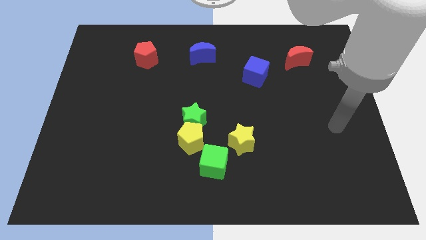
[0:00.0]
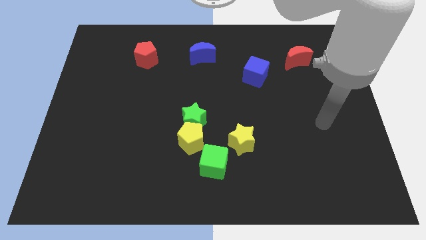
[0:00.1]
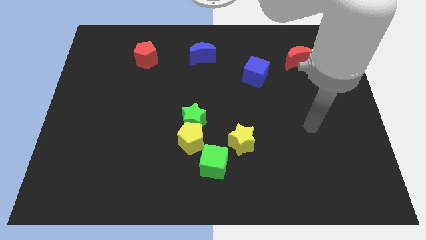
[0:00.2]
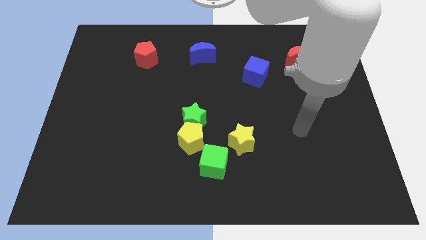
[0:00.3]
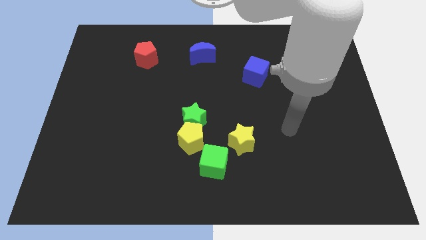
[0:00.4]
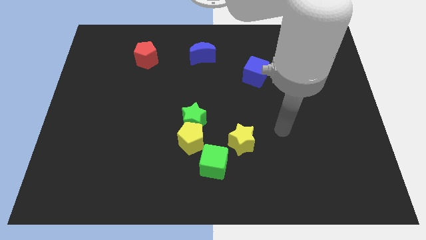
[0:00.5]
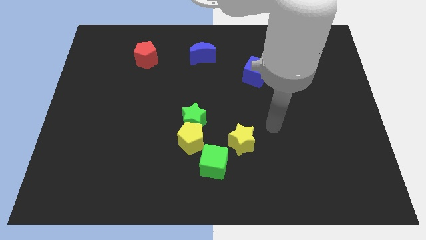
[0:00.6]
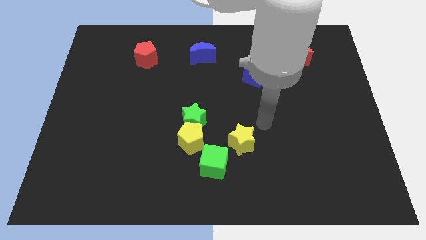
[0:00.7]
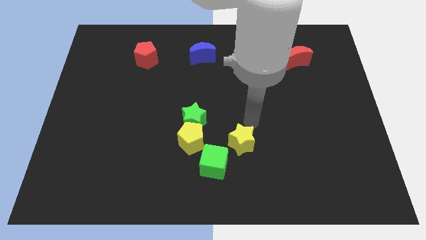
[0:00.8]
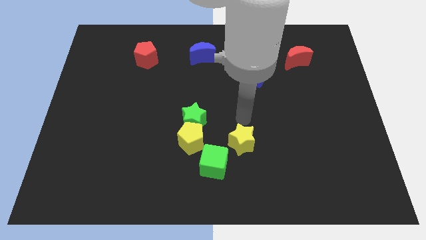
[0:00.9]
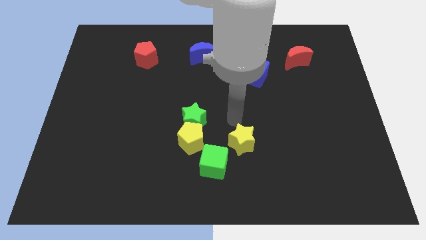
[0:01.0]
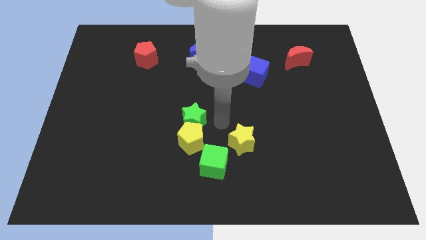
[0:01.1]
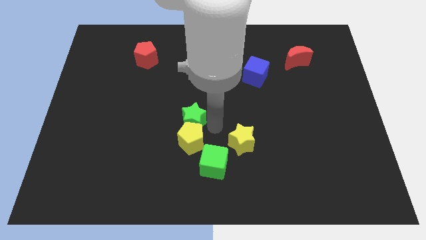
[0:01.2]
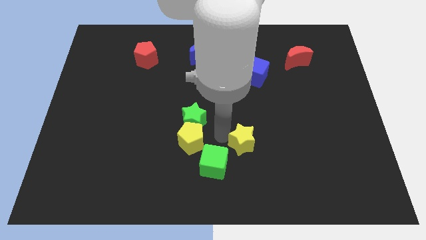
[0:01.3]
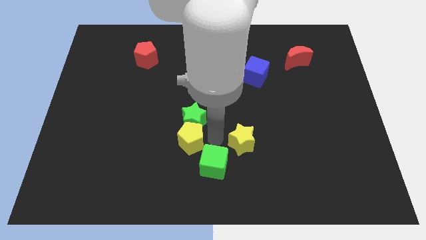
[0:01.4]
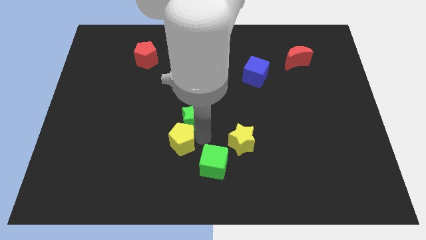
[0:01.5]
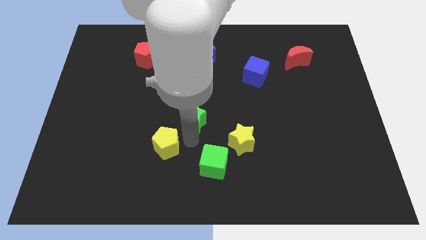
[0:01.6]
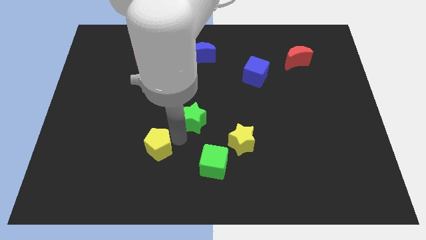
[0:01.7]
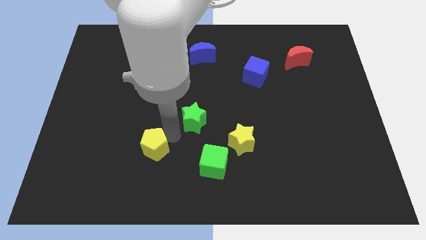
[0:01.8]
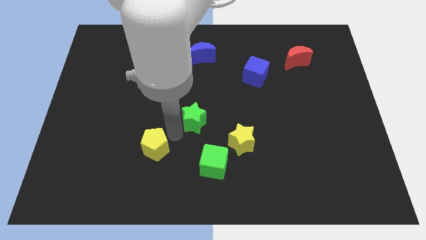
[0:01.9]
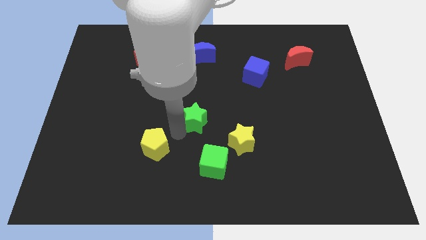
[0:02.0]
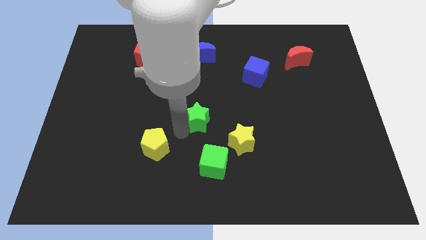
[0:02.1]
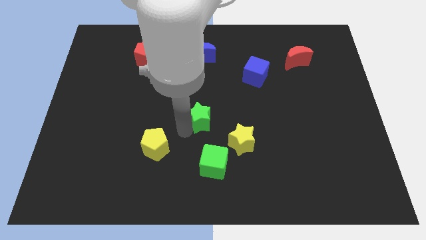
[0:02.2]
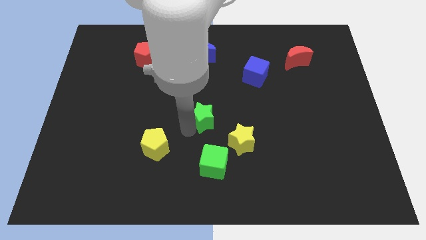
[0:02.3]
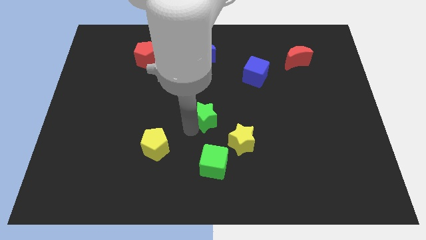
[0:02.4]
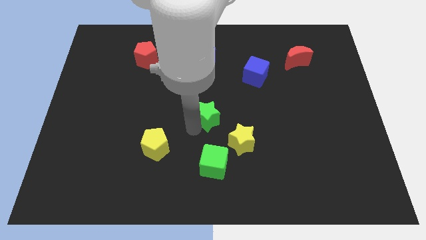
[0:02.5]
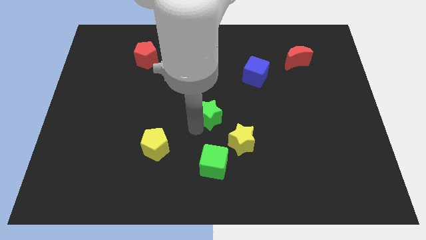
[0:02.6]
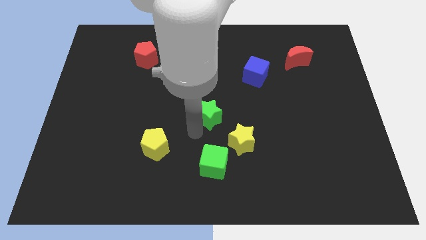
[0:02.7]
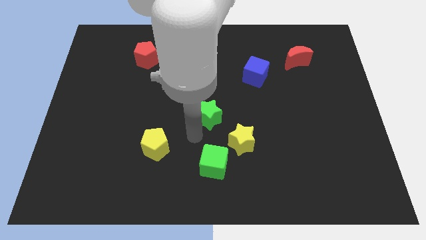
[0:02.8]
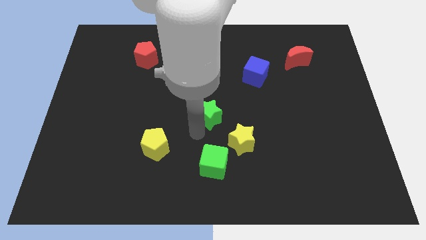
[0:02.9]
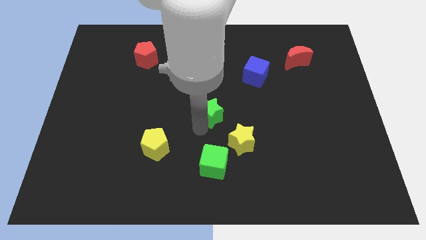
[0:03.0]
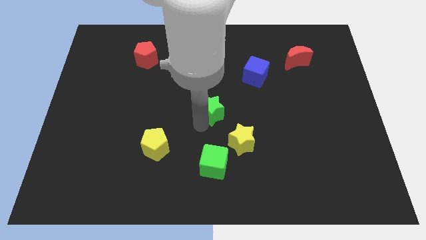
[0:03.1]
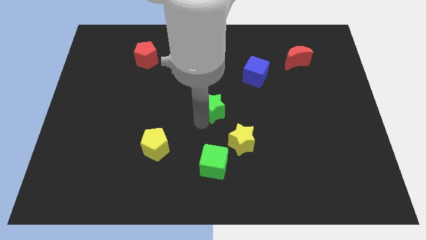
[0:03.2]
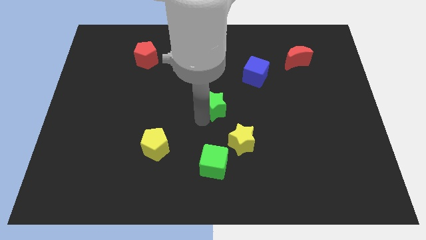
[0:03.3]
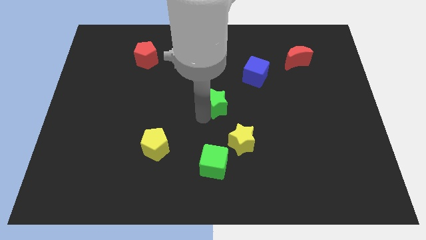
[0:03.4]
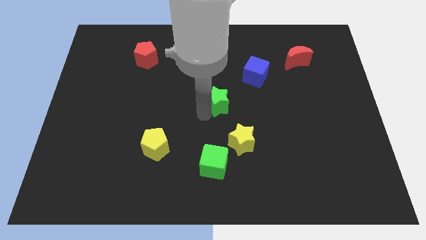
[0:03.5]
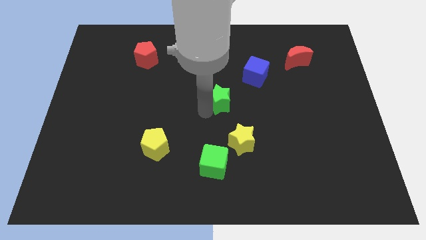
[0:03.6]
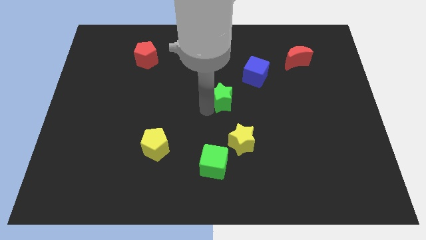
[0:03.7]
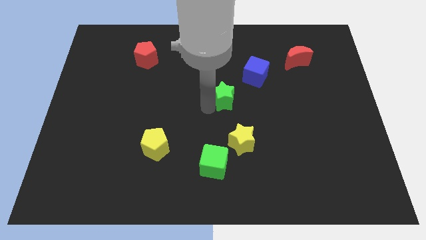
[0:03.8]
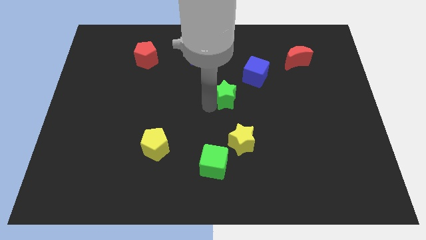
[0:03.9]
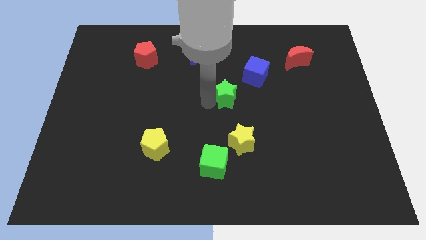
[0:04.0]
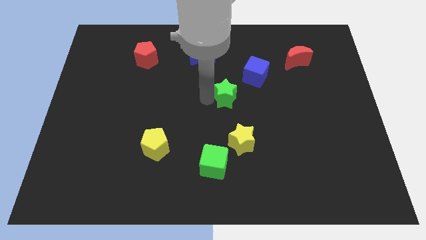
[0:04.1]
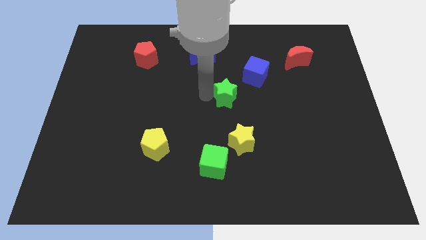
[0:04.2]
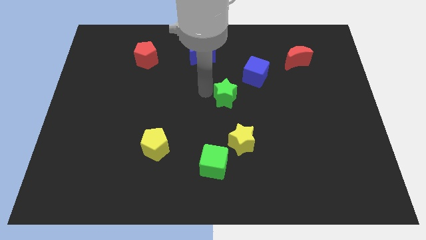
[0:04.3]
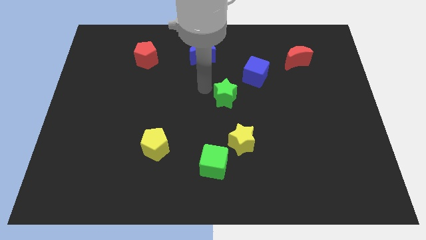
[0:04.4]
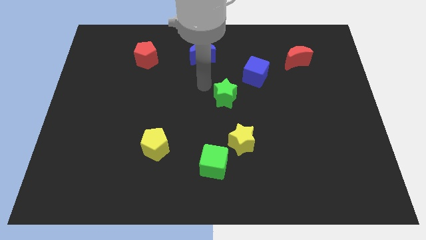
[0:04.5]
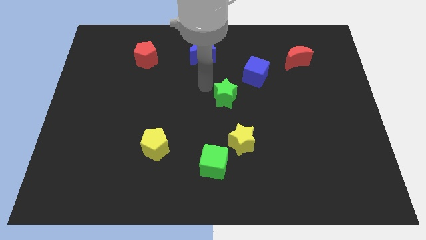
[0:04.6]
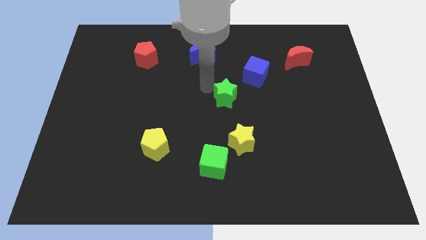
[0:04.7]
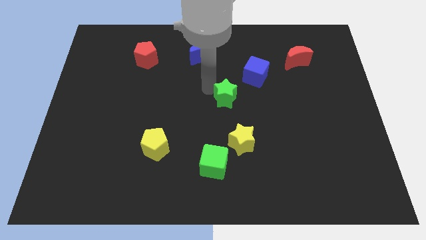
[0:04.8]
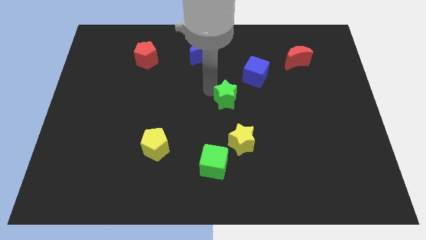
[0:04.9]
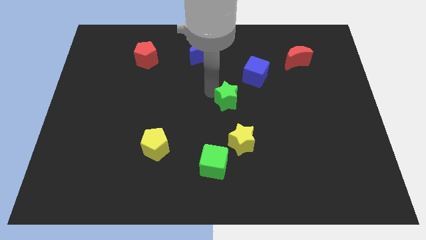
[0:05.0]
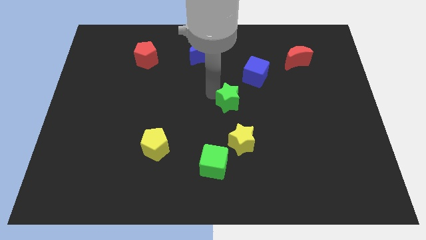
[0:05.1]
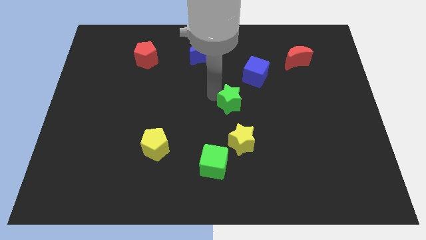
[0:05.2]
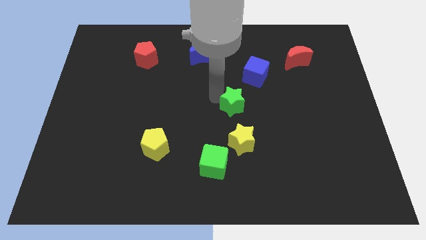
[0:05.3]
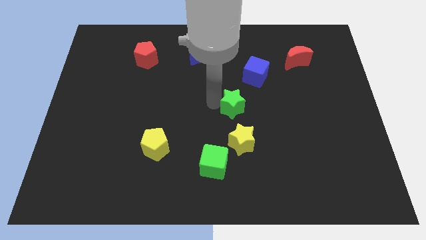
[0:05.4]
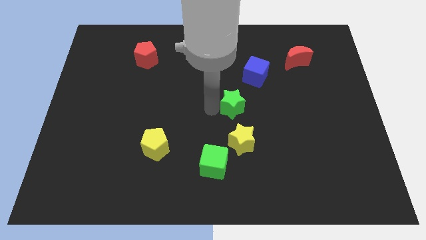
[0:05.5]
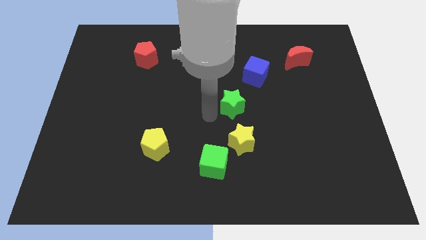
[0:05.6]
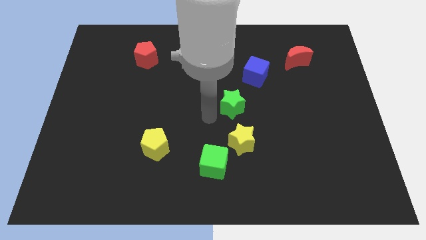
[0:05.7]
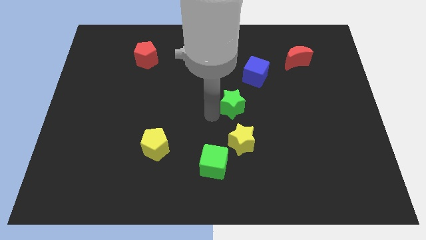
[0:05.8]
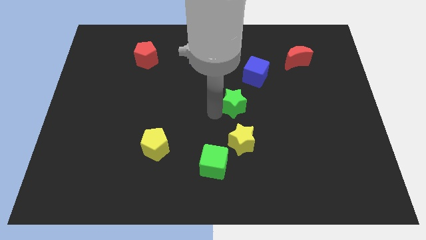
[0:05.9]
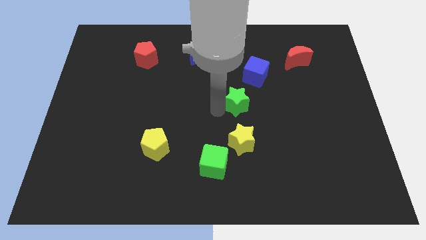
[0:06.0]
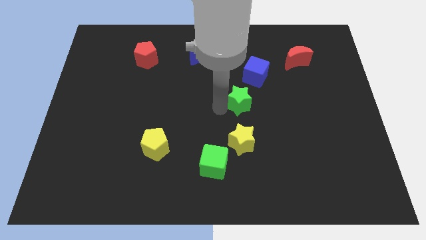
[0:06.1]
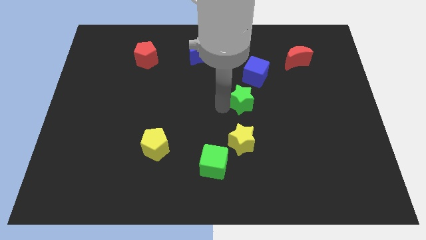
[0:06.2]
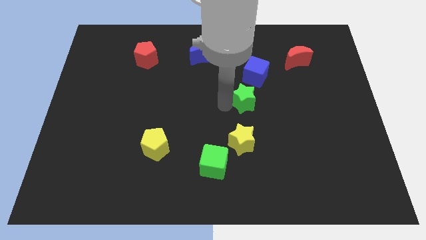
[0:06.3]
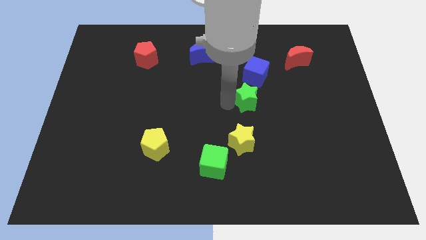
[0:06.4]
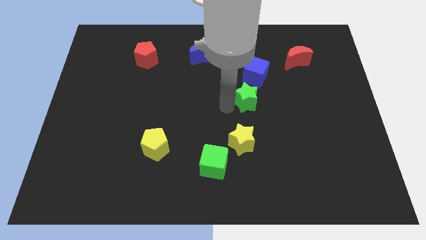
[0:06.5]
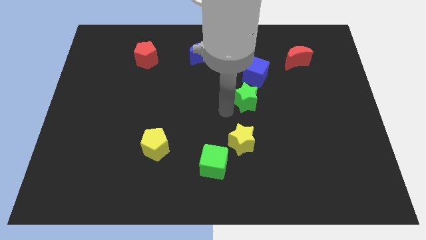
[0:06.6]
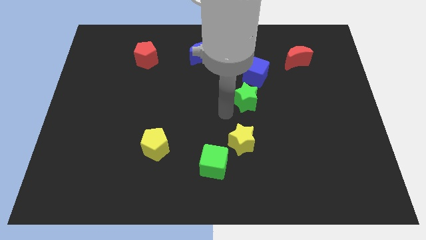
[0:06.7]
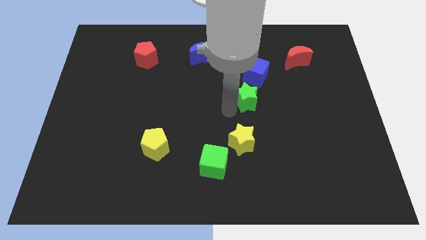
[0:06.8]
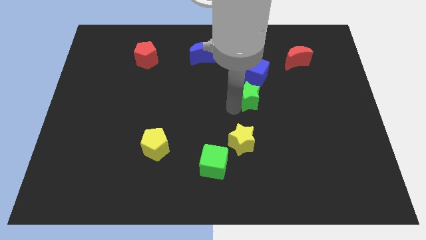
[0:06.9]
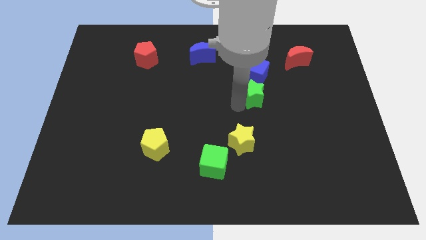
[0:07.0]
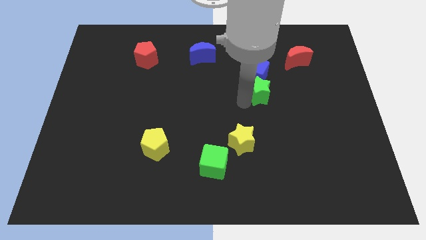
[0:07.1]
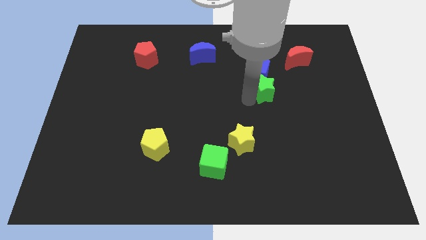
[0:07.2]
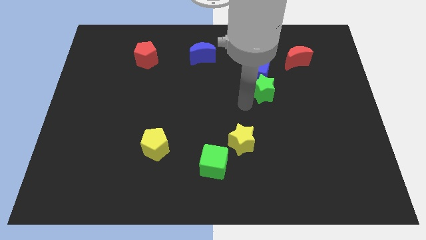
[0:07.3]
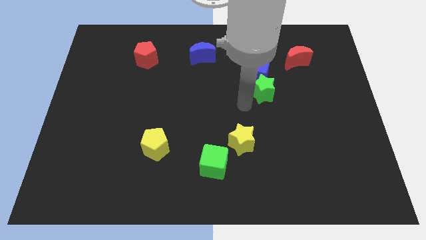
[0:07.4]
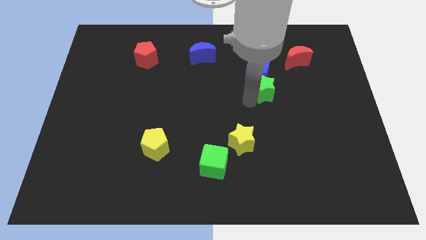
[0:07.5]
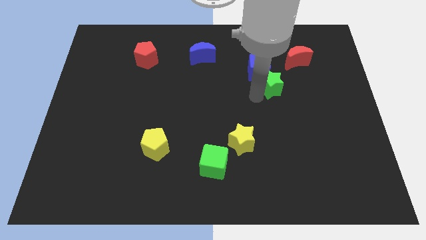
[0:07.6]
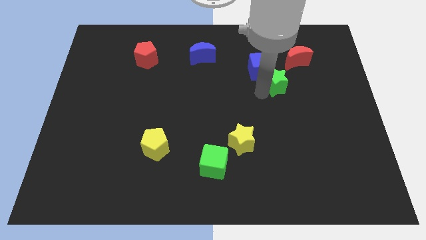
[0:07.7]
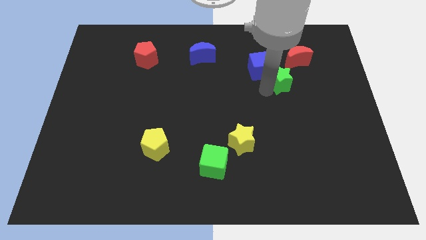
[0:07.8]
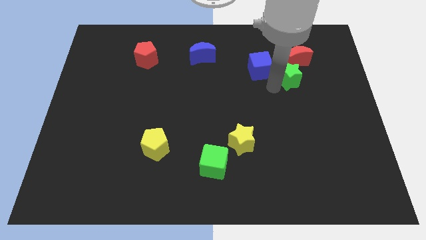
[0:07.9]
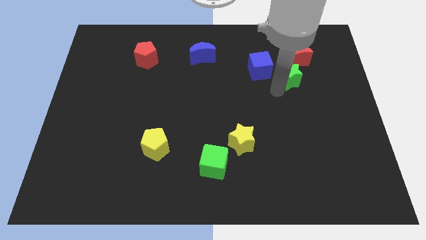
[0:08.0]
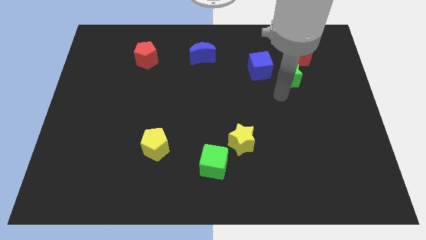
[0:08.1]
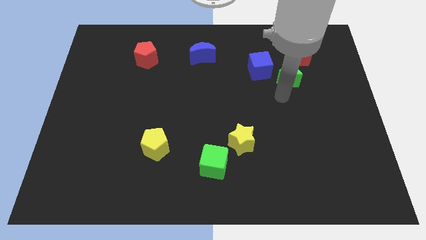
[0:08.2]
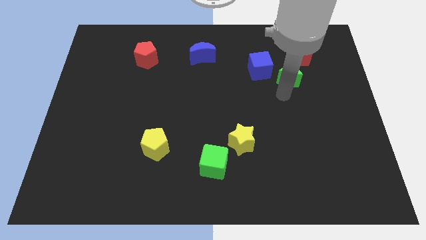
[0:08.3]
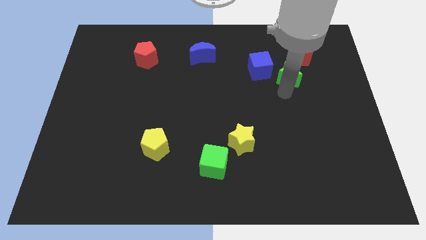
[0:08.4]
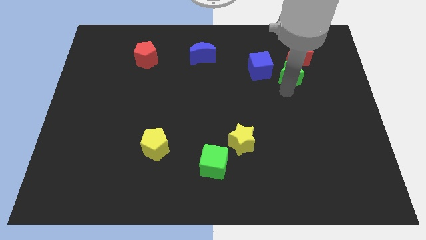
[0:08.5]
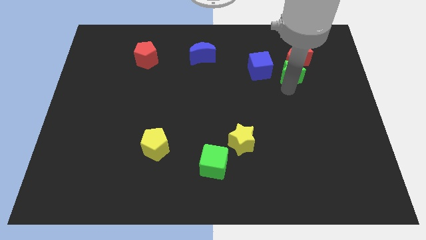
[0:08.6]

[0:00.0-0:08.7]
push the green star to the red moon
